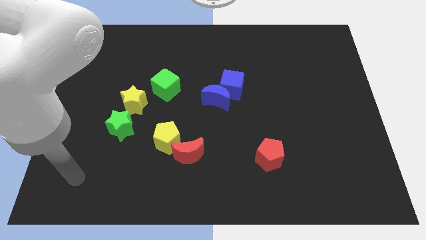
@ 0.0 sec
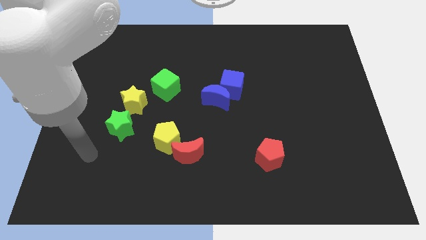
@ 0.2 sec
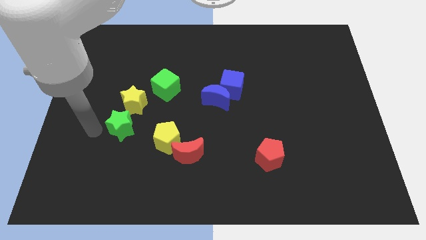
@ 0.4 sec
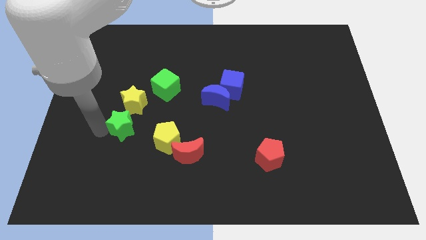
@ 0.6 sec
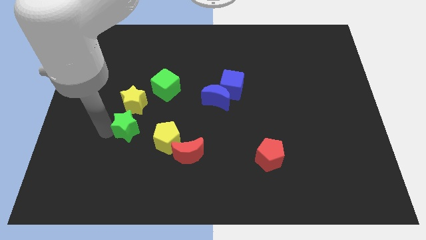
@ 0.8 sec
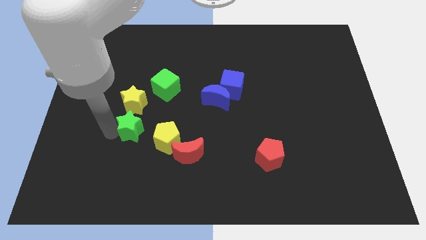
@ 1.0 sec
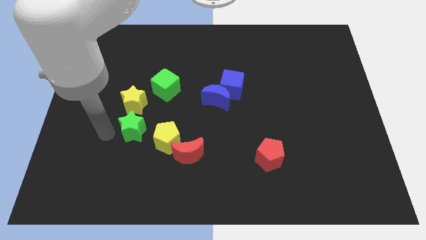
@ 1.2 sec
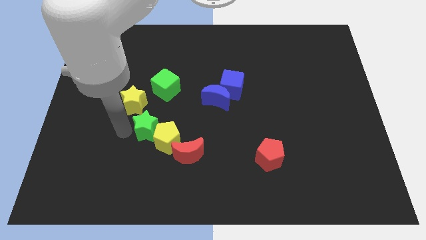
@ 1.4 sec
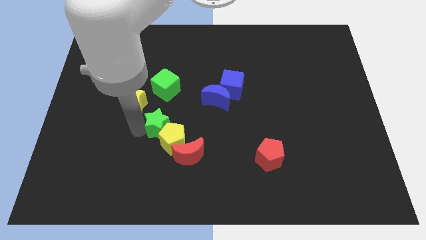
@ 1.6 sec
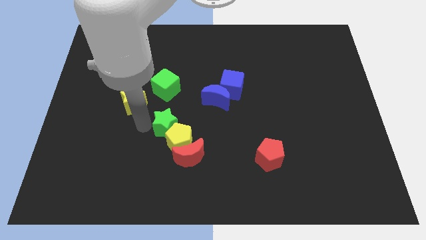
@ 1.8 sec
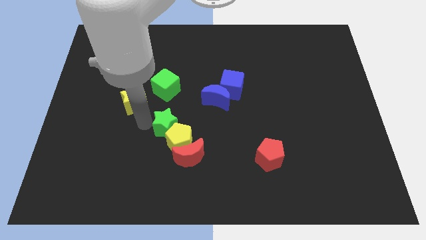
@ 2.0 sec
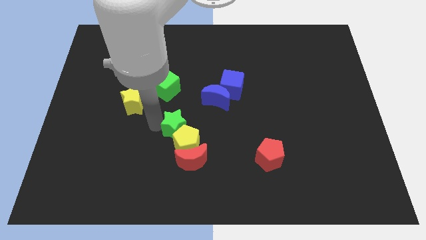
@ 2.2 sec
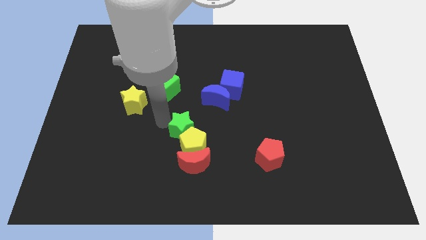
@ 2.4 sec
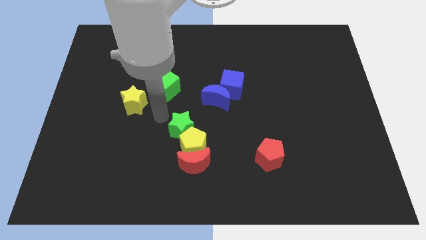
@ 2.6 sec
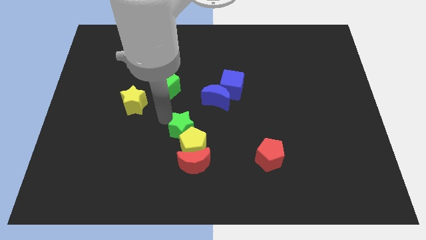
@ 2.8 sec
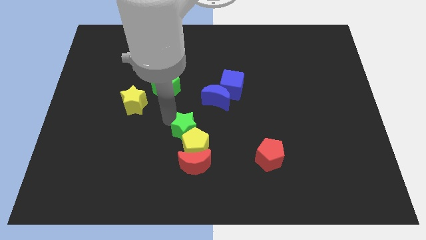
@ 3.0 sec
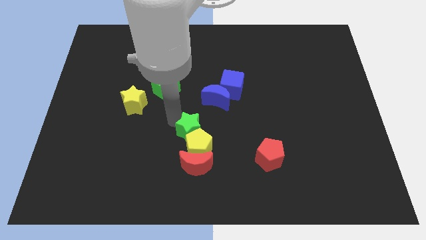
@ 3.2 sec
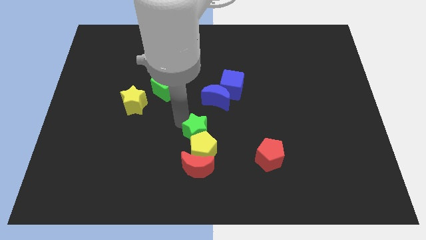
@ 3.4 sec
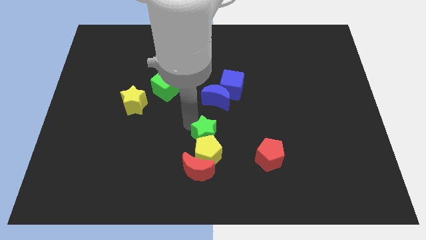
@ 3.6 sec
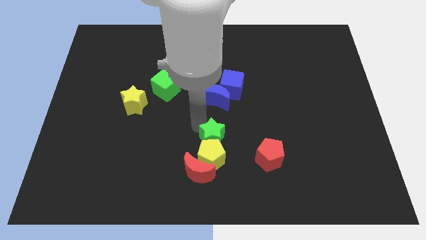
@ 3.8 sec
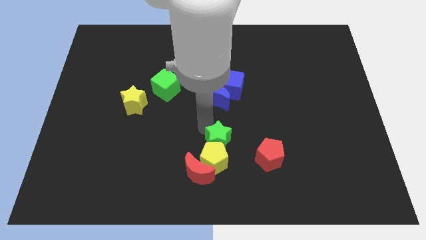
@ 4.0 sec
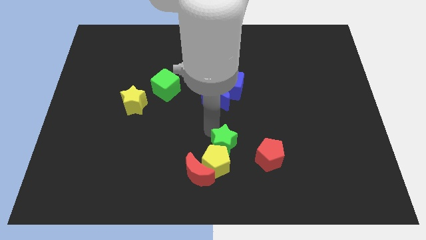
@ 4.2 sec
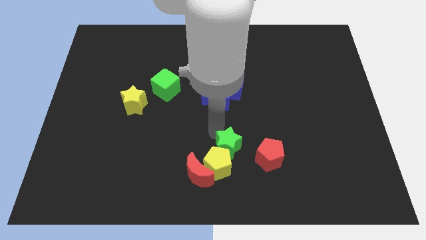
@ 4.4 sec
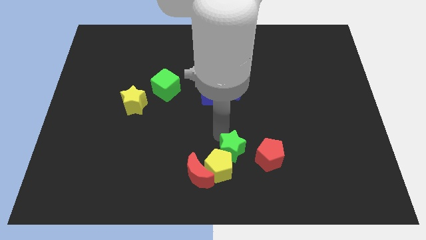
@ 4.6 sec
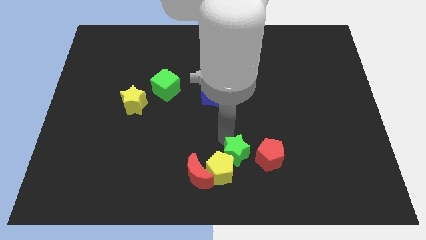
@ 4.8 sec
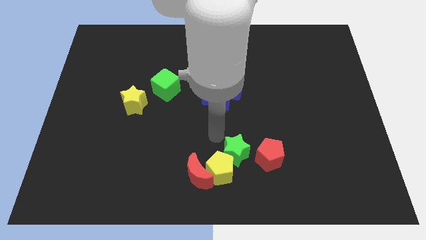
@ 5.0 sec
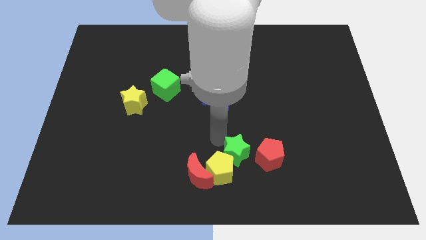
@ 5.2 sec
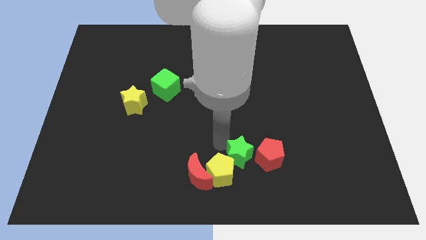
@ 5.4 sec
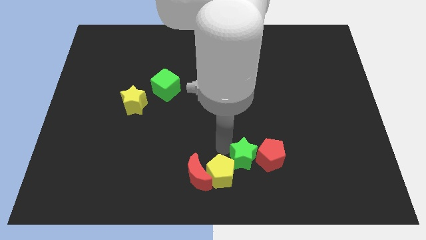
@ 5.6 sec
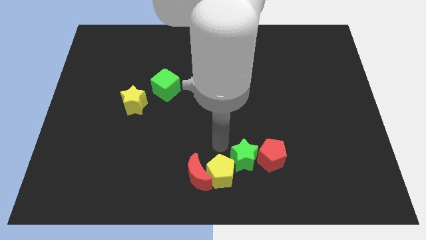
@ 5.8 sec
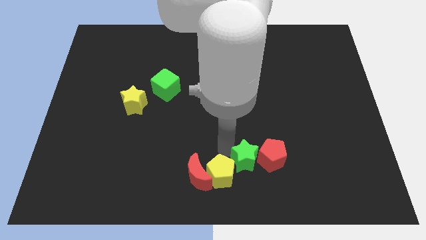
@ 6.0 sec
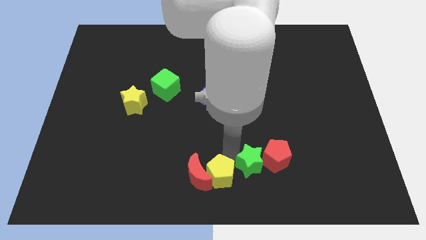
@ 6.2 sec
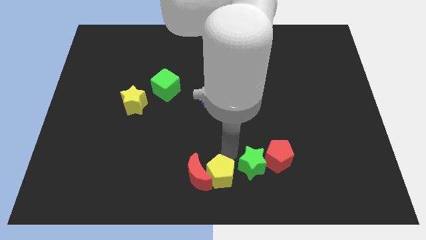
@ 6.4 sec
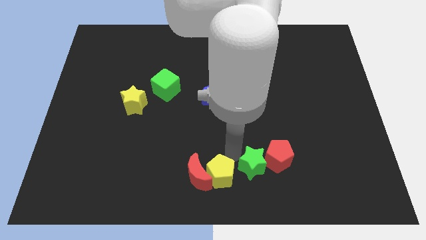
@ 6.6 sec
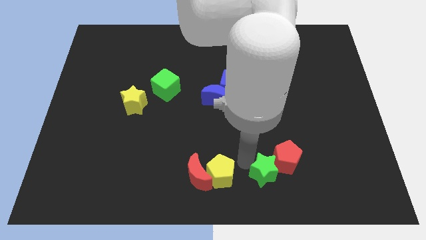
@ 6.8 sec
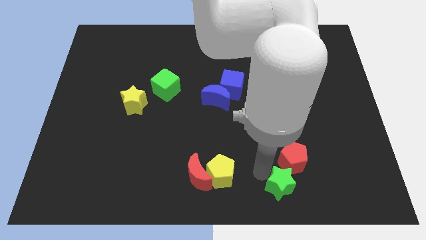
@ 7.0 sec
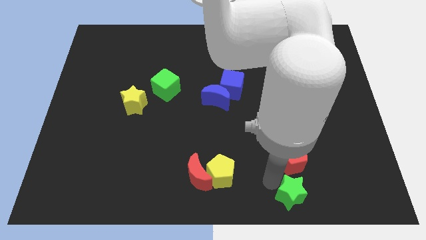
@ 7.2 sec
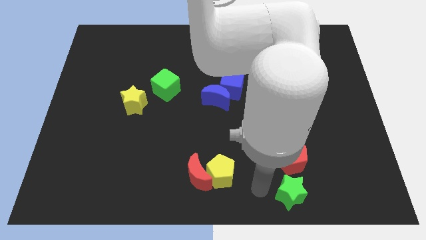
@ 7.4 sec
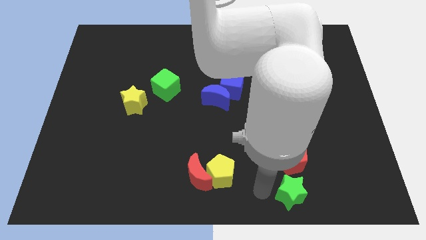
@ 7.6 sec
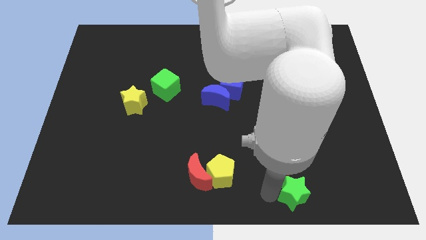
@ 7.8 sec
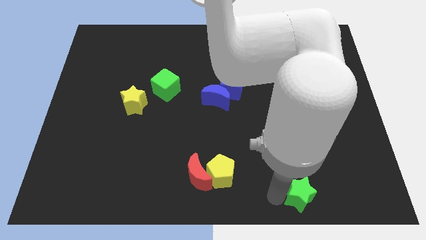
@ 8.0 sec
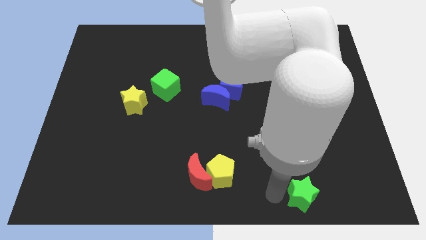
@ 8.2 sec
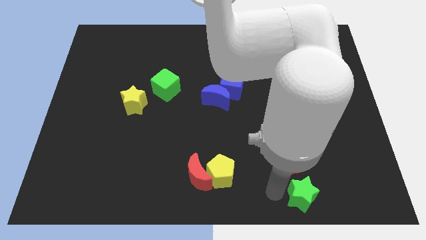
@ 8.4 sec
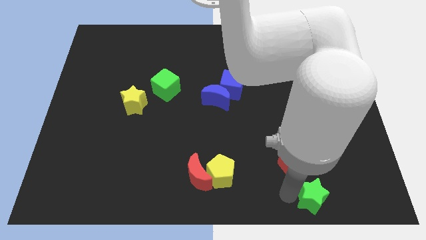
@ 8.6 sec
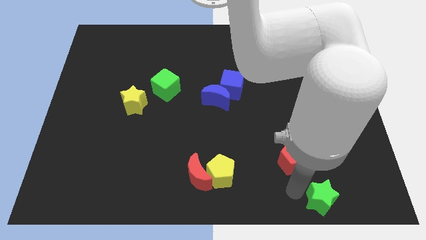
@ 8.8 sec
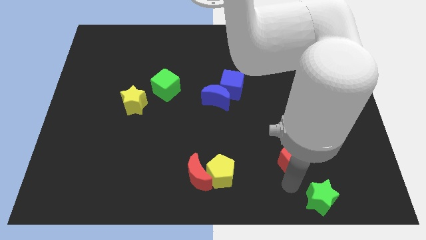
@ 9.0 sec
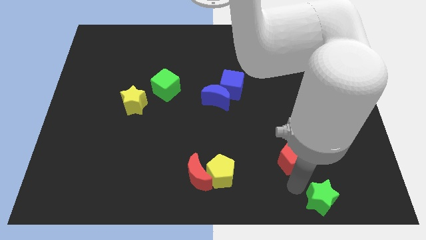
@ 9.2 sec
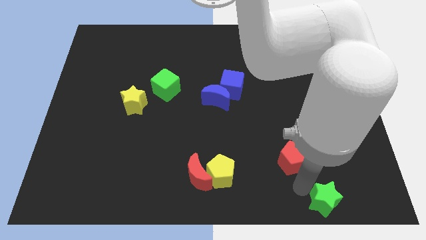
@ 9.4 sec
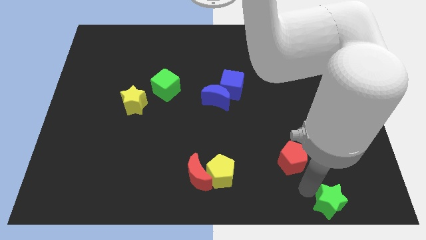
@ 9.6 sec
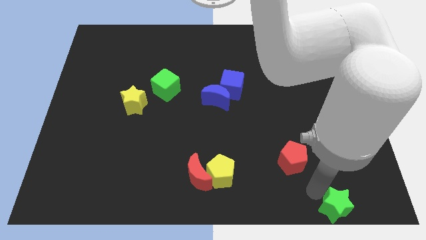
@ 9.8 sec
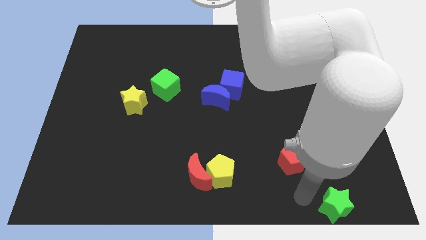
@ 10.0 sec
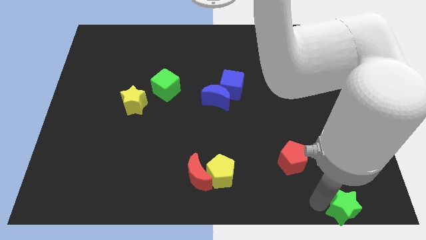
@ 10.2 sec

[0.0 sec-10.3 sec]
move the green star to the bottom right of the board

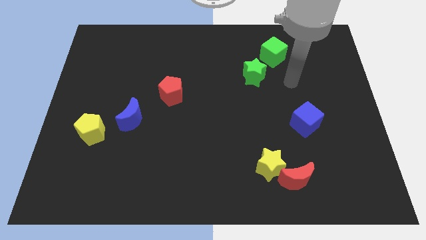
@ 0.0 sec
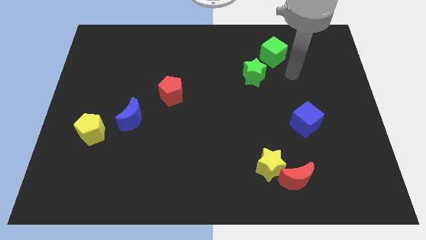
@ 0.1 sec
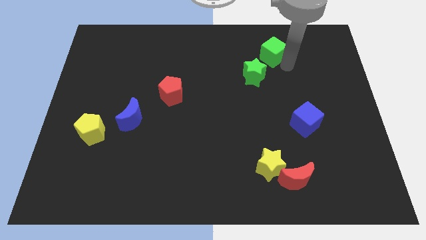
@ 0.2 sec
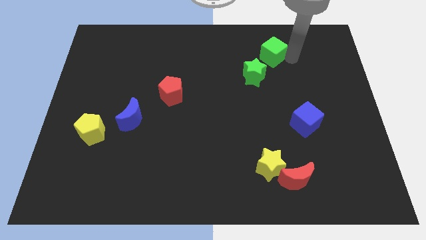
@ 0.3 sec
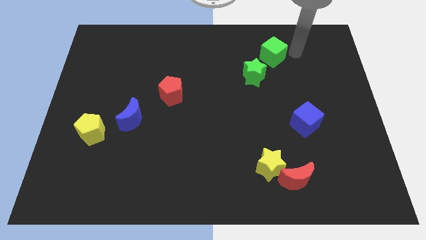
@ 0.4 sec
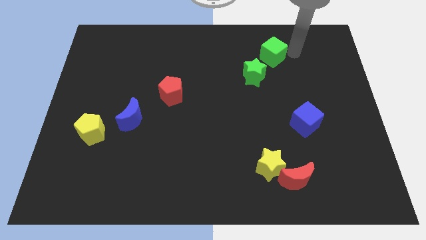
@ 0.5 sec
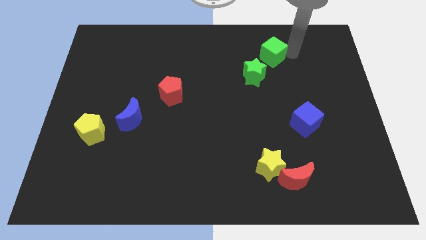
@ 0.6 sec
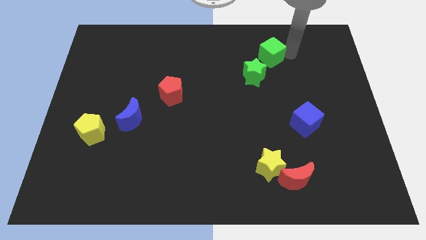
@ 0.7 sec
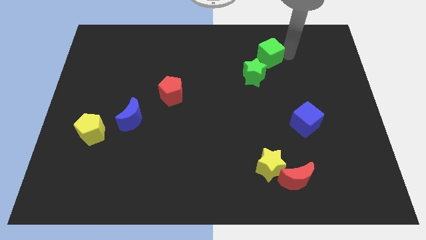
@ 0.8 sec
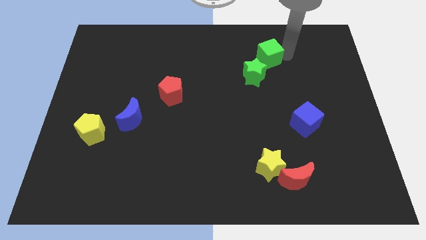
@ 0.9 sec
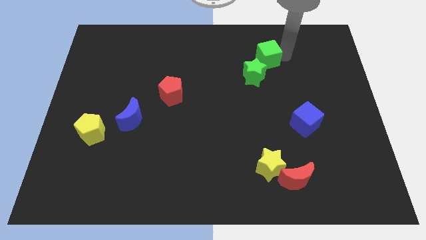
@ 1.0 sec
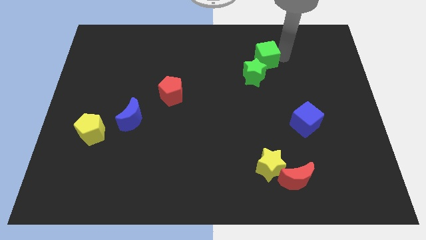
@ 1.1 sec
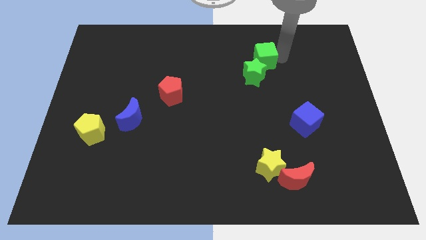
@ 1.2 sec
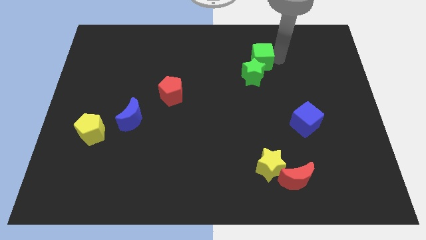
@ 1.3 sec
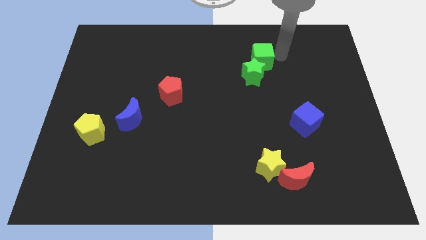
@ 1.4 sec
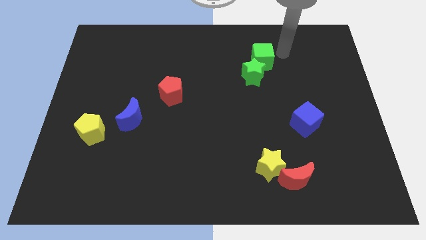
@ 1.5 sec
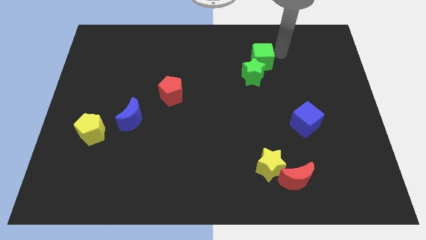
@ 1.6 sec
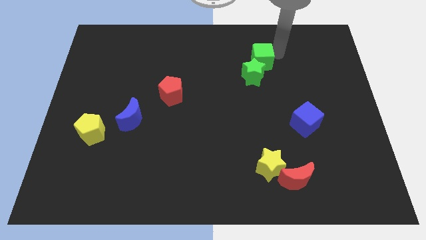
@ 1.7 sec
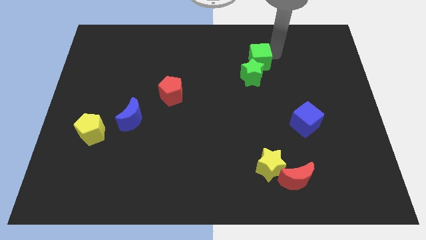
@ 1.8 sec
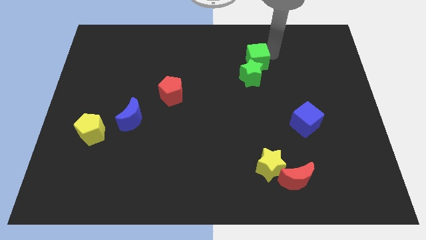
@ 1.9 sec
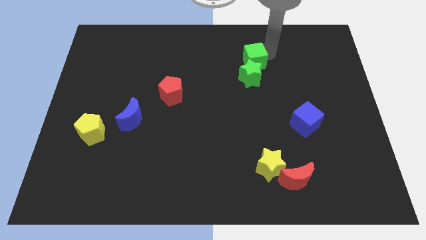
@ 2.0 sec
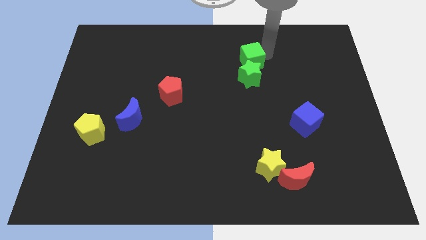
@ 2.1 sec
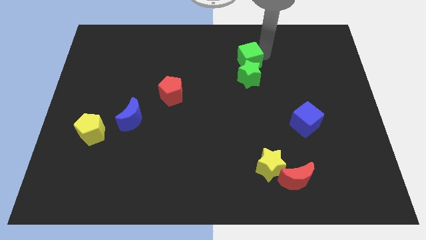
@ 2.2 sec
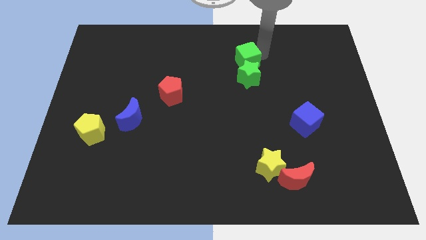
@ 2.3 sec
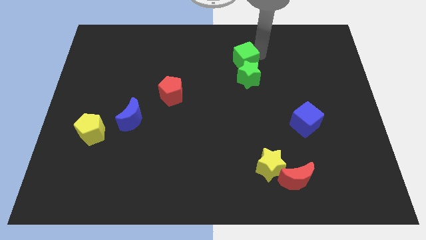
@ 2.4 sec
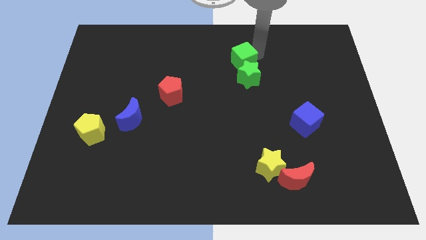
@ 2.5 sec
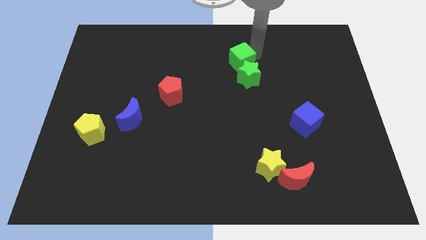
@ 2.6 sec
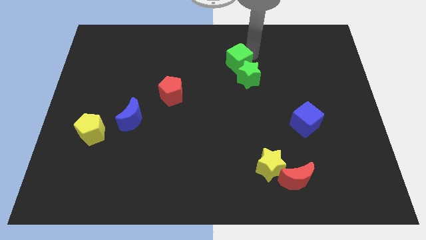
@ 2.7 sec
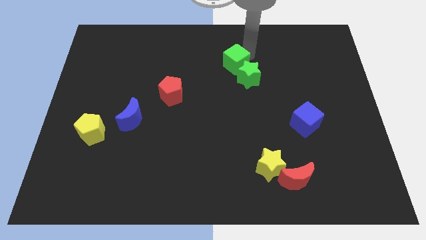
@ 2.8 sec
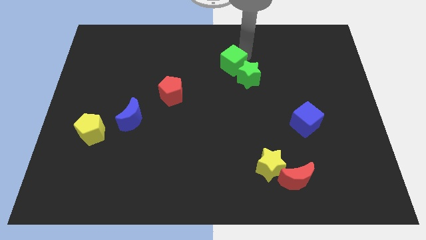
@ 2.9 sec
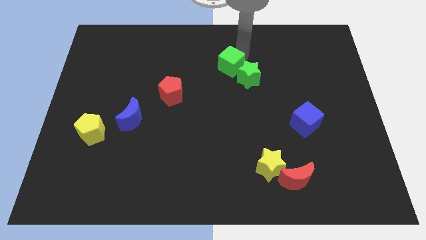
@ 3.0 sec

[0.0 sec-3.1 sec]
push the green cube to the center of the board
